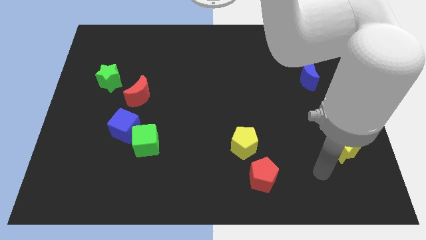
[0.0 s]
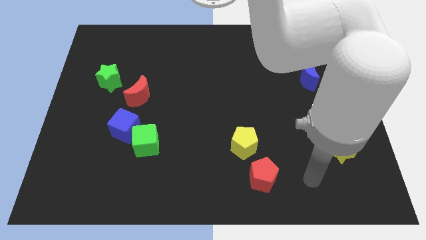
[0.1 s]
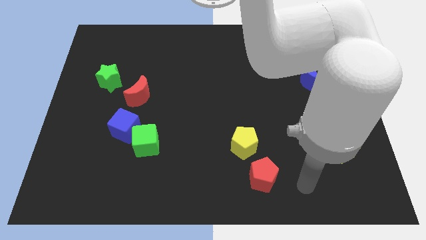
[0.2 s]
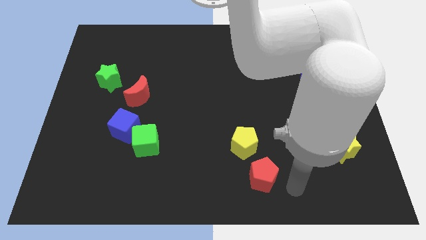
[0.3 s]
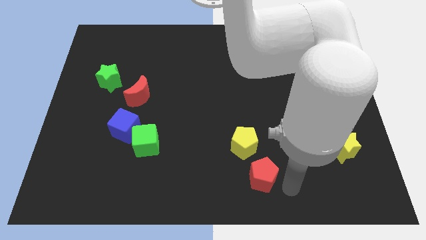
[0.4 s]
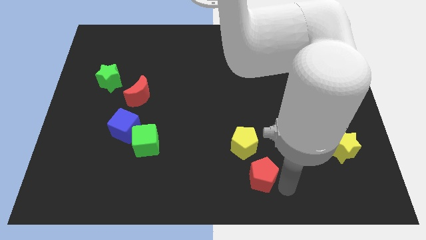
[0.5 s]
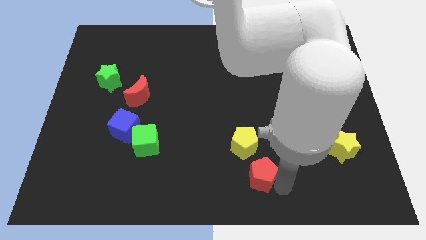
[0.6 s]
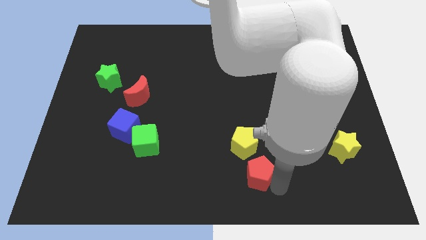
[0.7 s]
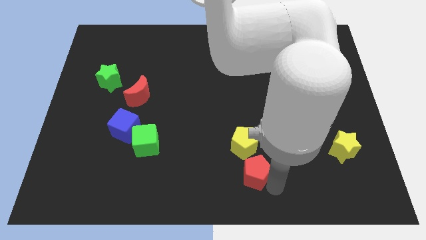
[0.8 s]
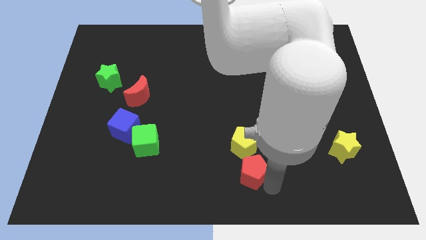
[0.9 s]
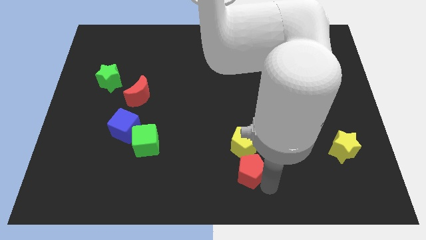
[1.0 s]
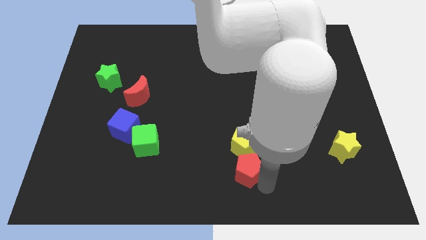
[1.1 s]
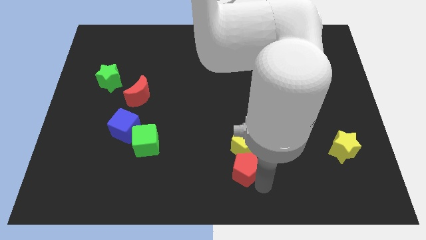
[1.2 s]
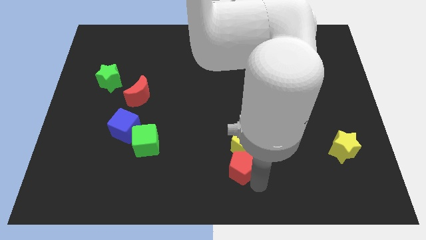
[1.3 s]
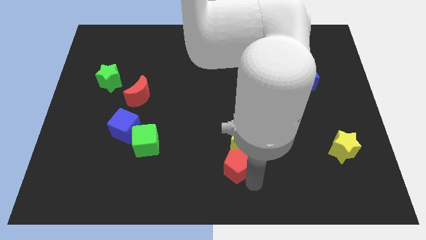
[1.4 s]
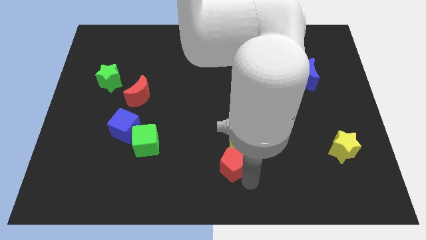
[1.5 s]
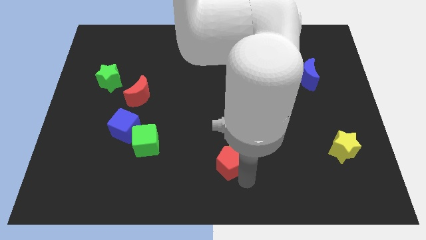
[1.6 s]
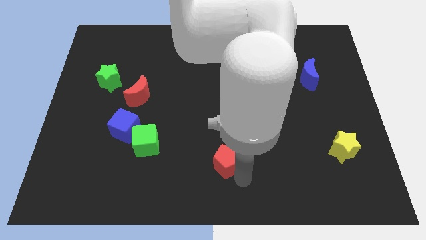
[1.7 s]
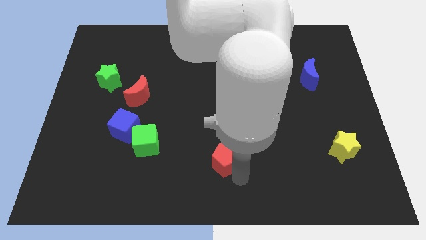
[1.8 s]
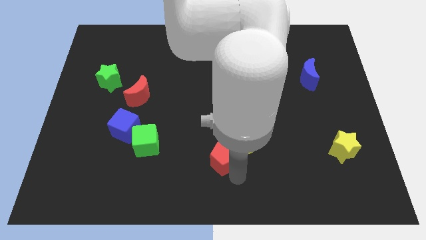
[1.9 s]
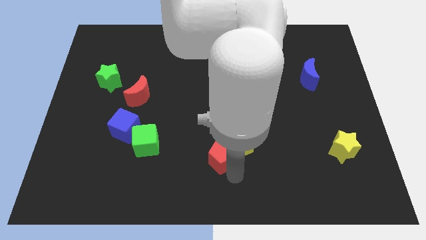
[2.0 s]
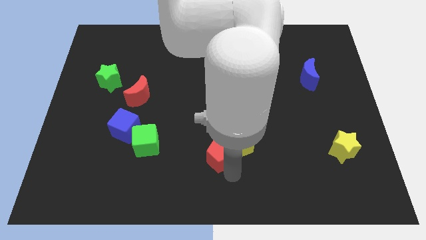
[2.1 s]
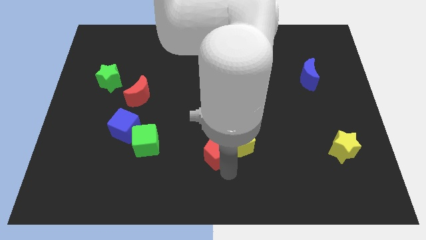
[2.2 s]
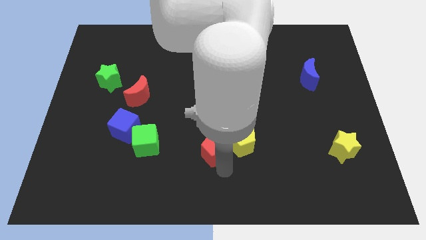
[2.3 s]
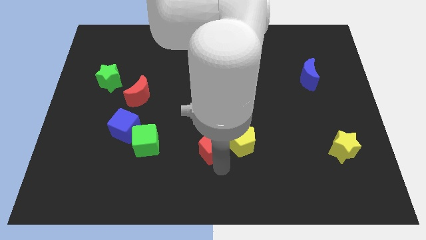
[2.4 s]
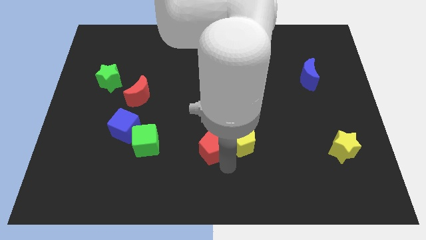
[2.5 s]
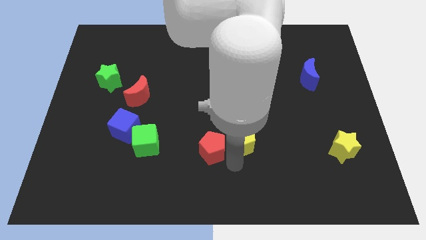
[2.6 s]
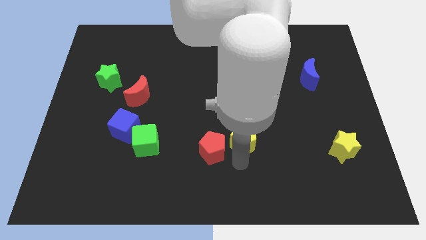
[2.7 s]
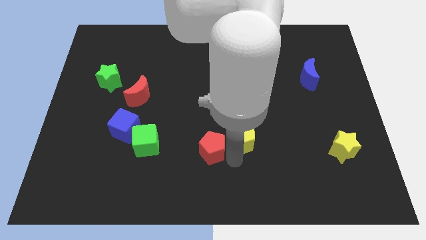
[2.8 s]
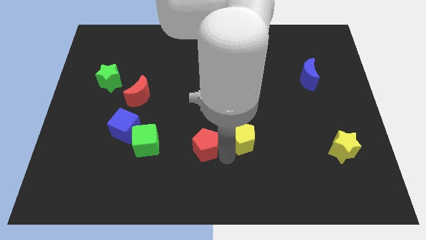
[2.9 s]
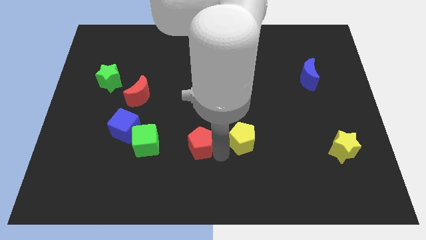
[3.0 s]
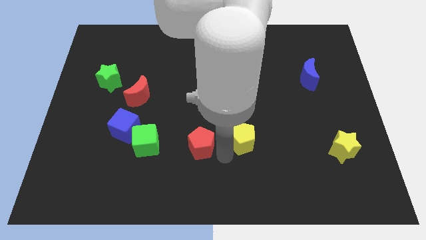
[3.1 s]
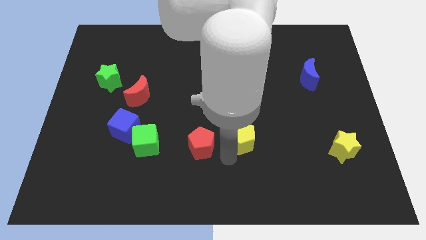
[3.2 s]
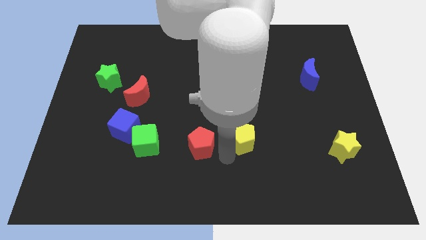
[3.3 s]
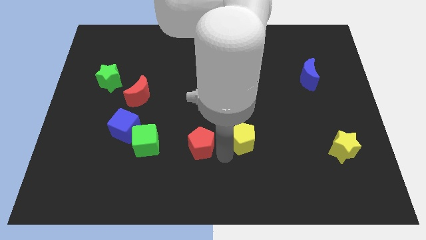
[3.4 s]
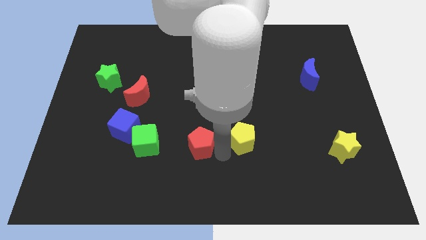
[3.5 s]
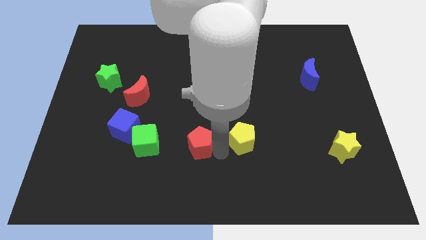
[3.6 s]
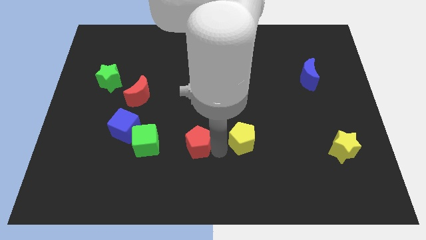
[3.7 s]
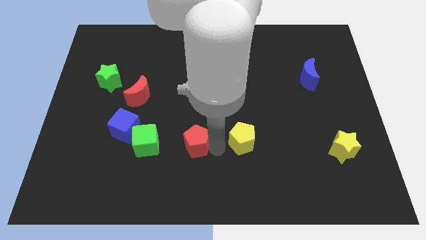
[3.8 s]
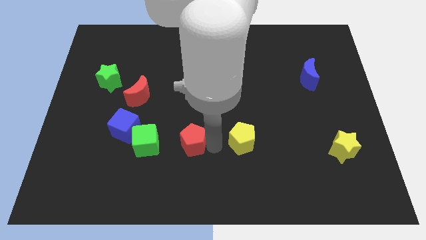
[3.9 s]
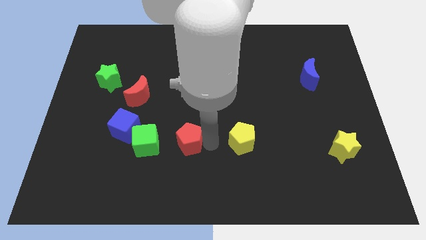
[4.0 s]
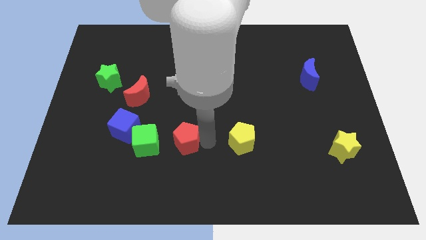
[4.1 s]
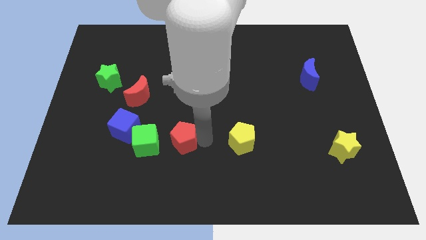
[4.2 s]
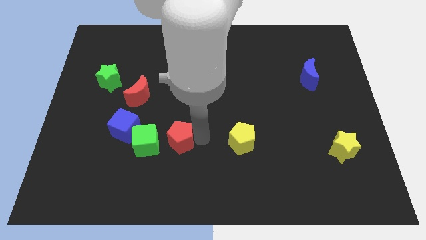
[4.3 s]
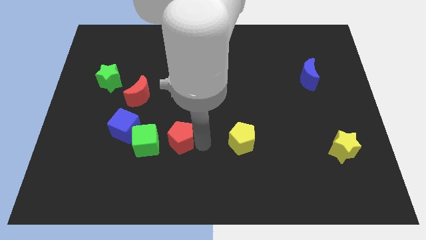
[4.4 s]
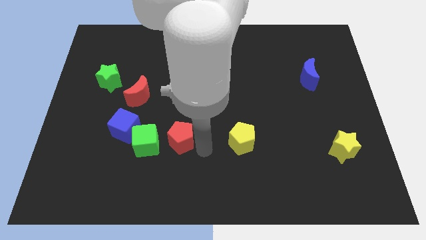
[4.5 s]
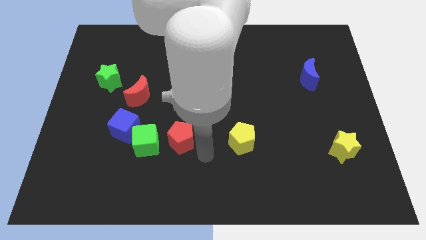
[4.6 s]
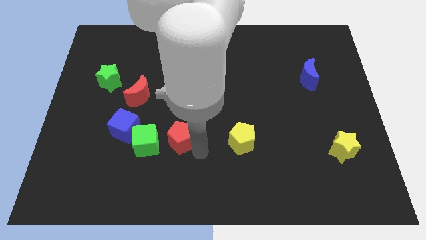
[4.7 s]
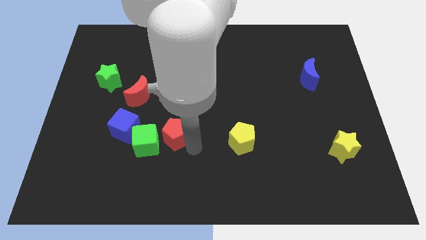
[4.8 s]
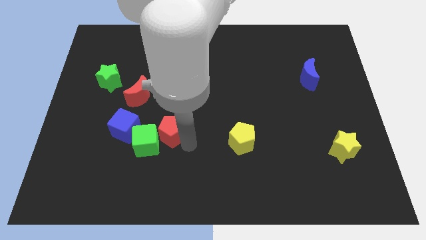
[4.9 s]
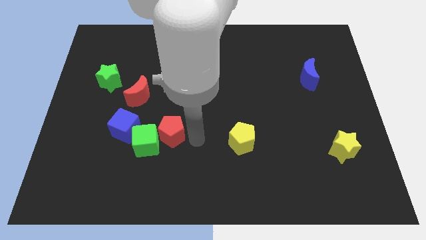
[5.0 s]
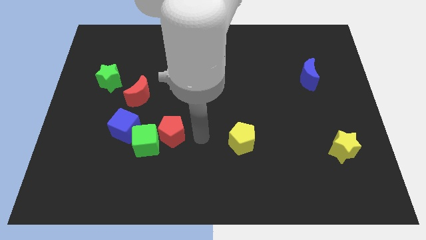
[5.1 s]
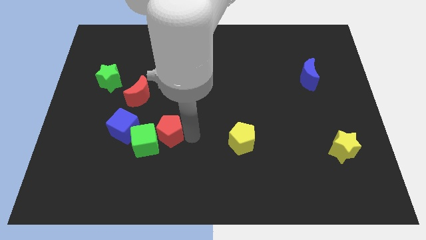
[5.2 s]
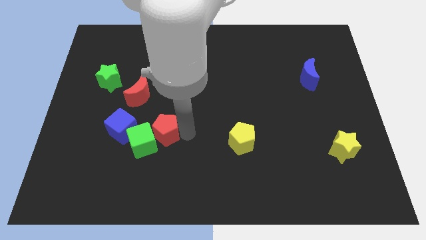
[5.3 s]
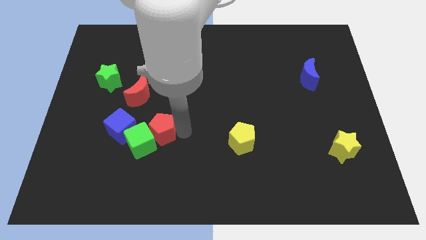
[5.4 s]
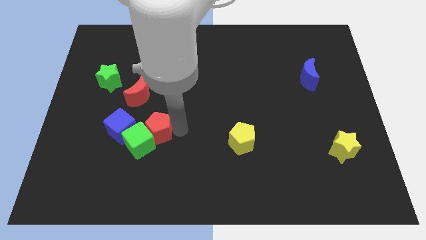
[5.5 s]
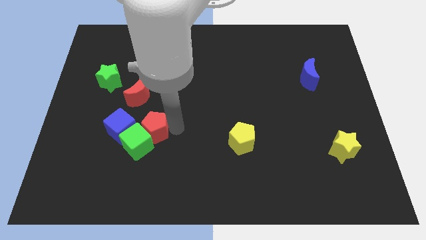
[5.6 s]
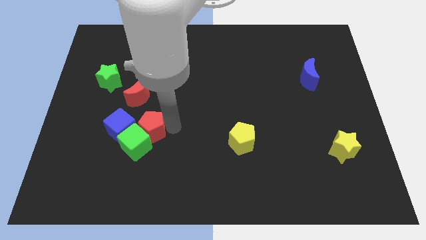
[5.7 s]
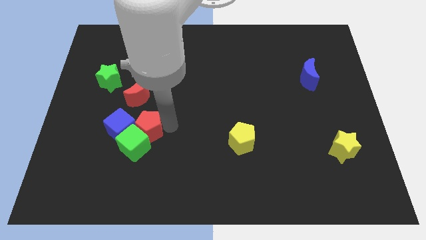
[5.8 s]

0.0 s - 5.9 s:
slide the red pentagon towards the blue cube
